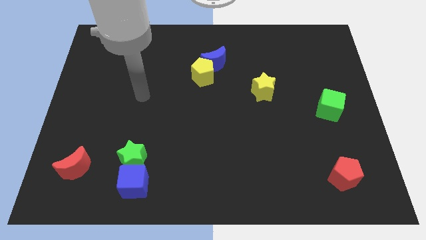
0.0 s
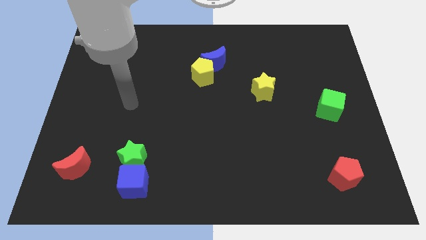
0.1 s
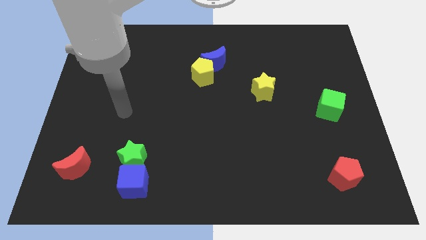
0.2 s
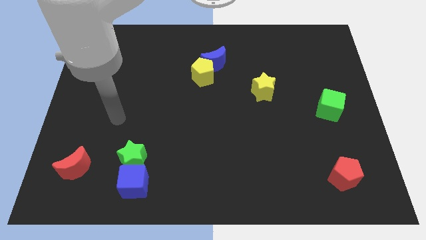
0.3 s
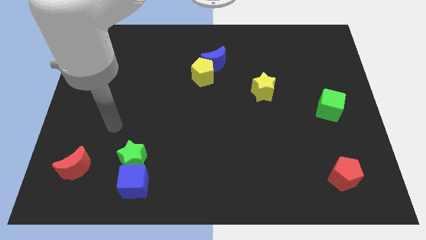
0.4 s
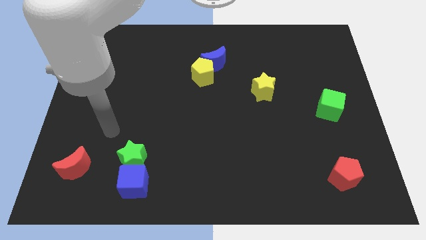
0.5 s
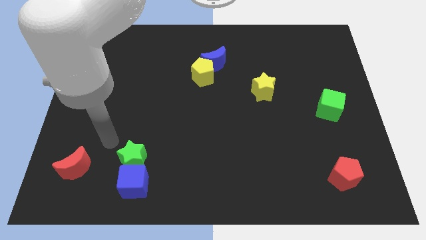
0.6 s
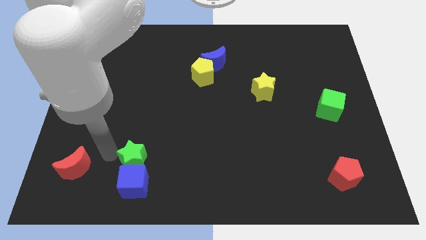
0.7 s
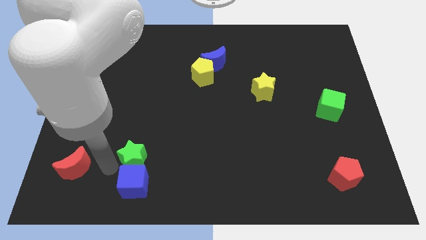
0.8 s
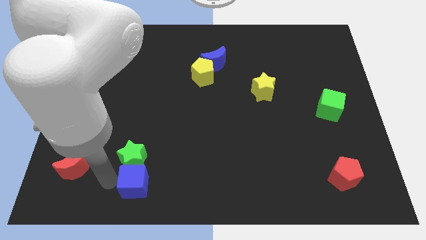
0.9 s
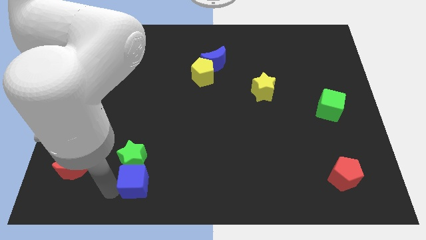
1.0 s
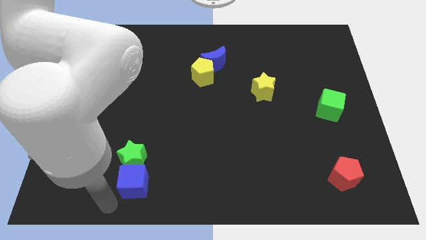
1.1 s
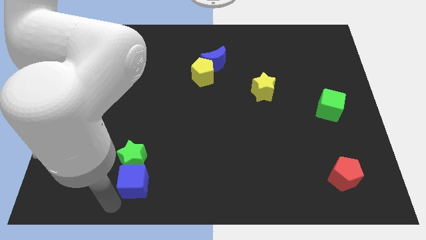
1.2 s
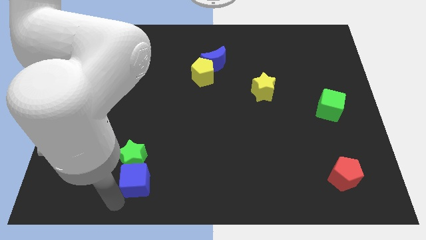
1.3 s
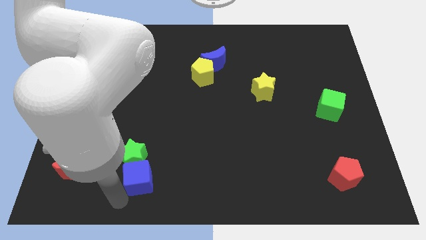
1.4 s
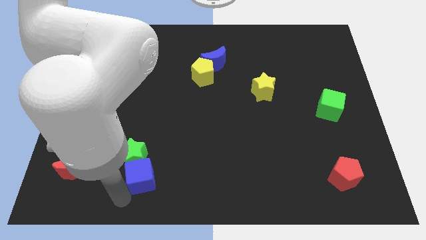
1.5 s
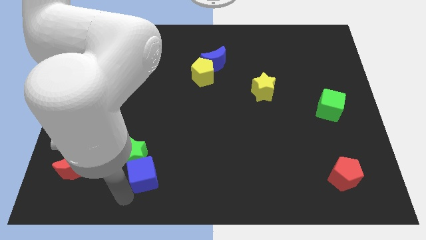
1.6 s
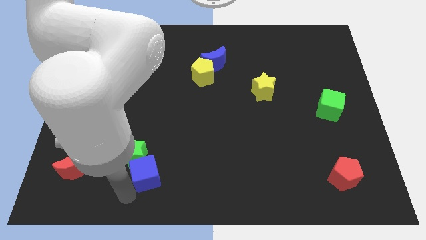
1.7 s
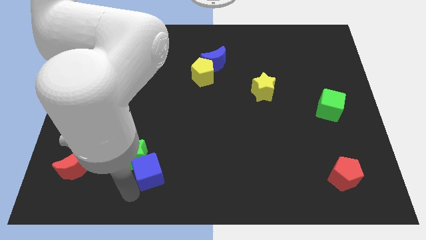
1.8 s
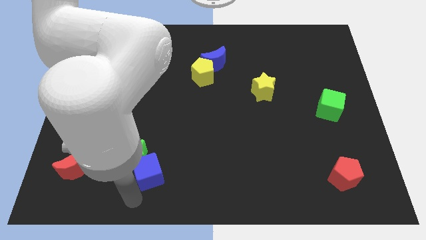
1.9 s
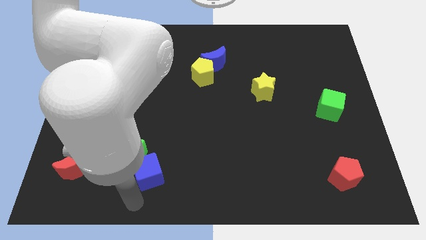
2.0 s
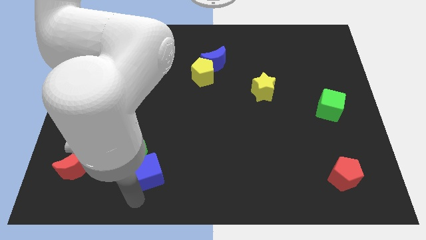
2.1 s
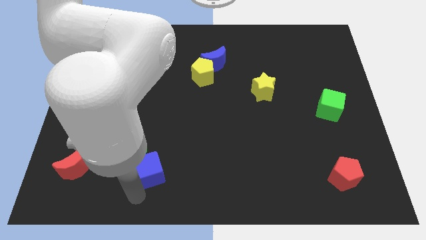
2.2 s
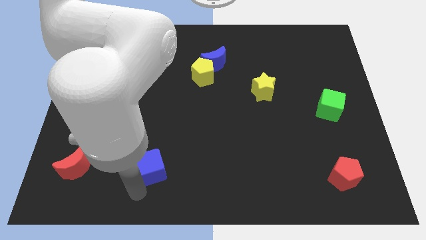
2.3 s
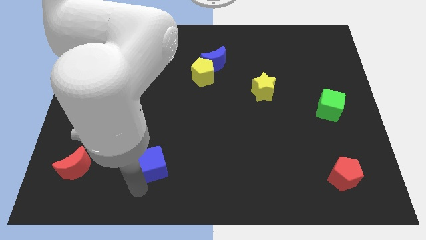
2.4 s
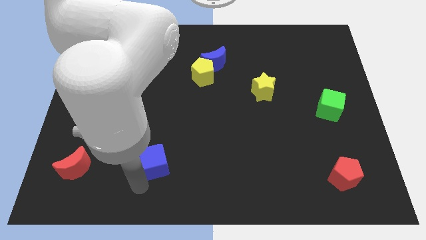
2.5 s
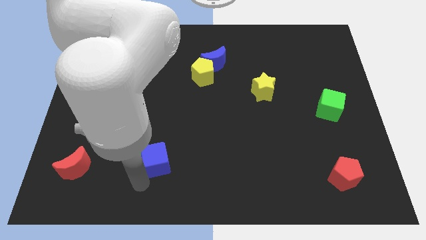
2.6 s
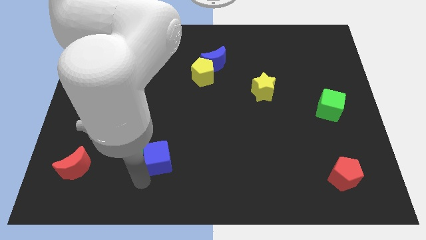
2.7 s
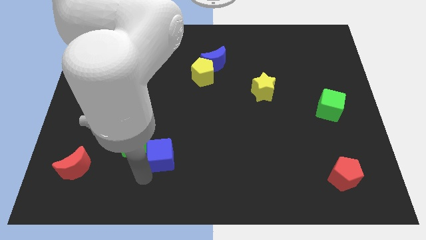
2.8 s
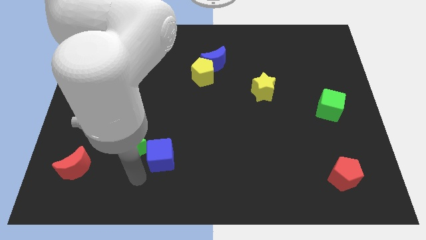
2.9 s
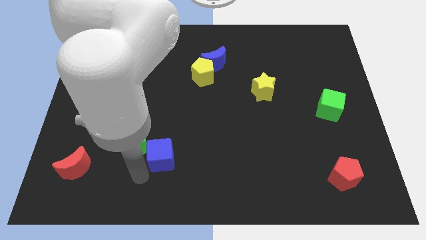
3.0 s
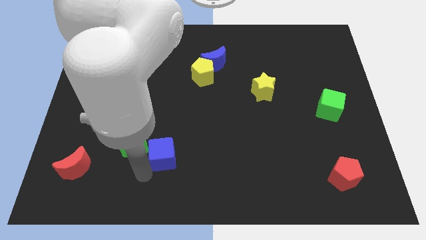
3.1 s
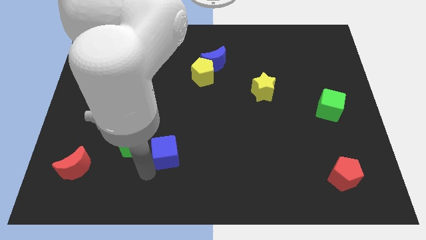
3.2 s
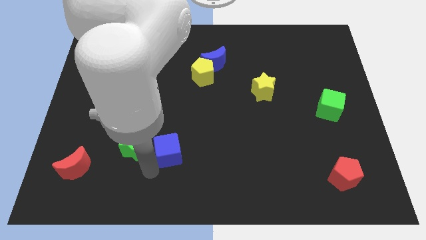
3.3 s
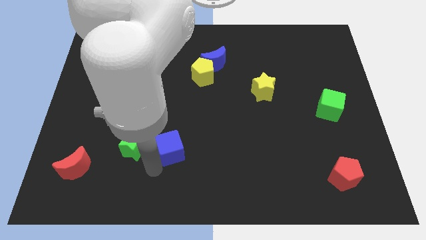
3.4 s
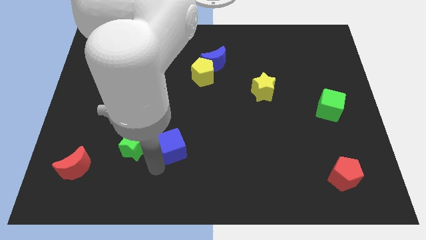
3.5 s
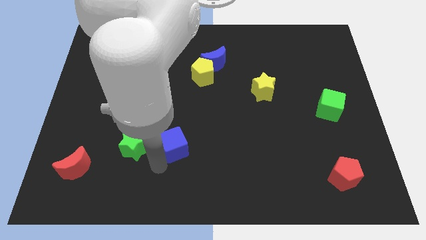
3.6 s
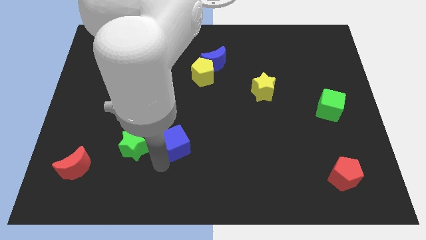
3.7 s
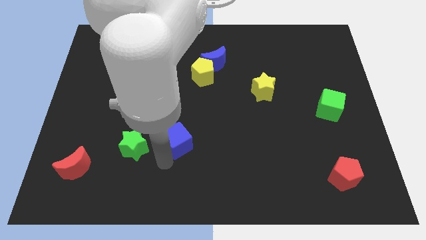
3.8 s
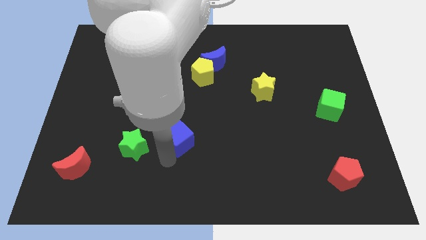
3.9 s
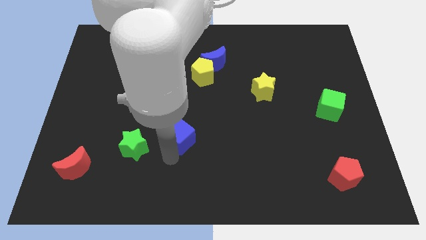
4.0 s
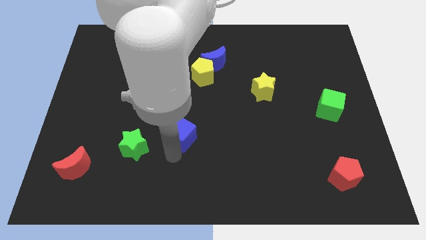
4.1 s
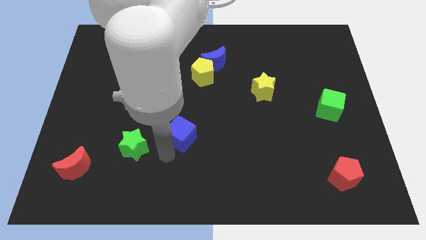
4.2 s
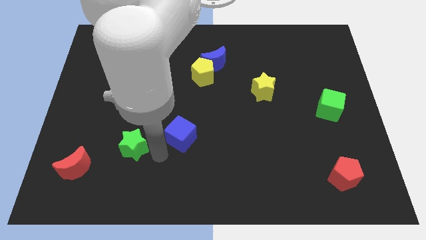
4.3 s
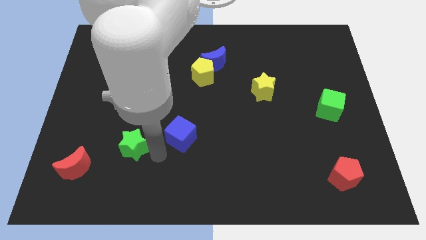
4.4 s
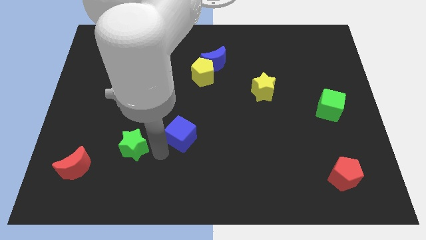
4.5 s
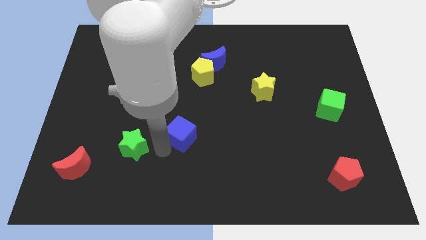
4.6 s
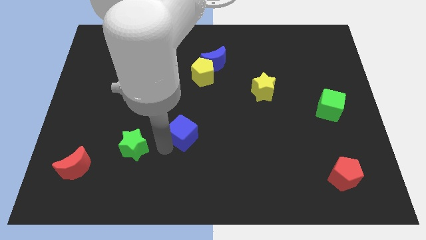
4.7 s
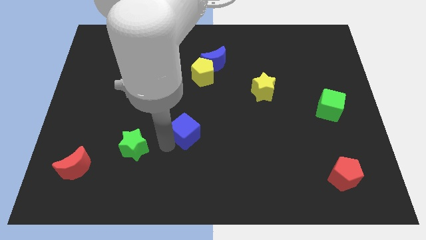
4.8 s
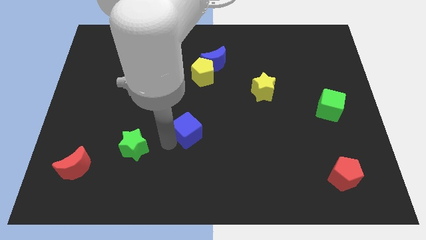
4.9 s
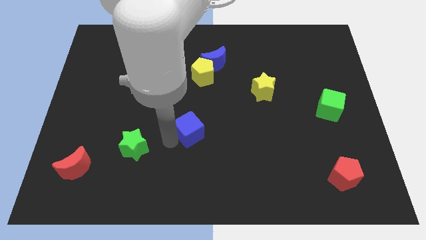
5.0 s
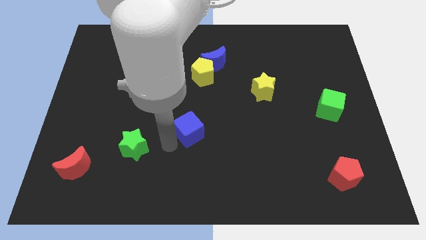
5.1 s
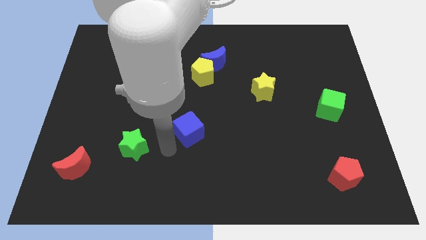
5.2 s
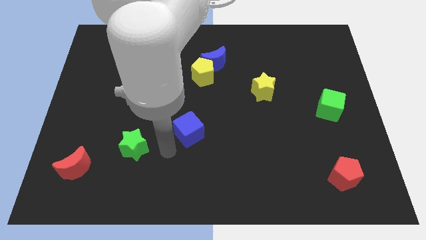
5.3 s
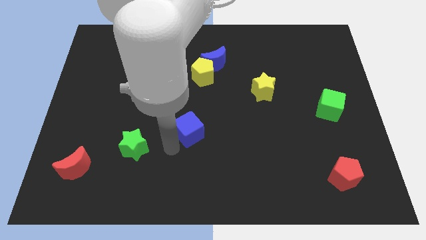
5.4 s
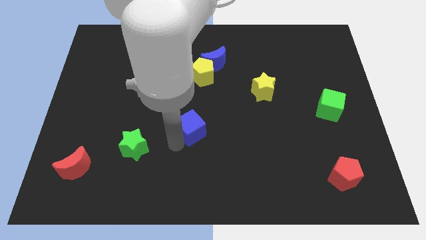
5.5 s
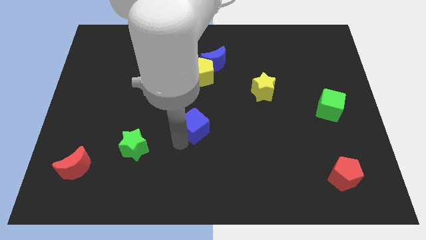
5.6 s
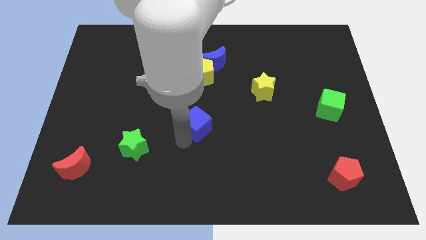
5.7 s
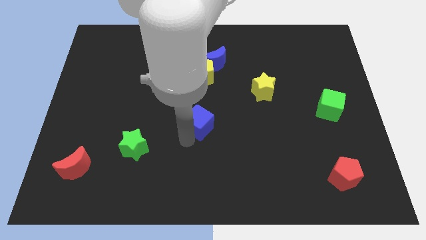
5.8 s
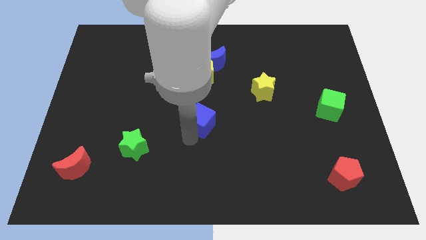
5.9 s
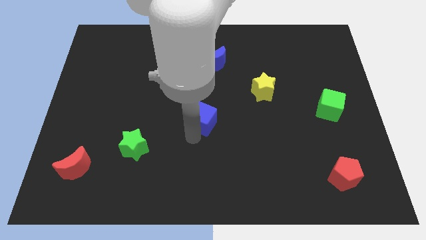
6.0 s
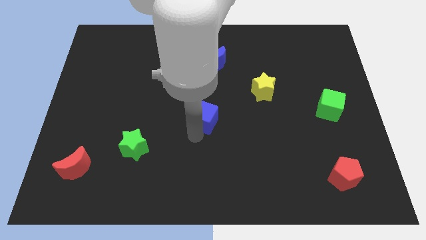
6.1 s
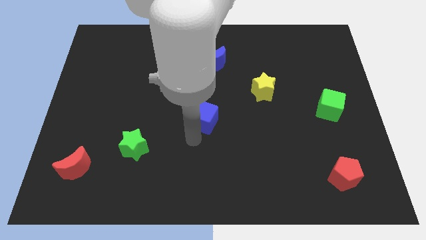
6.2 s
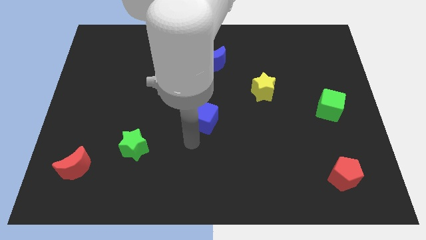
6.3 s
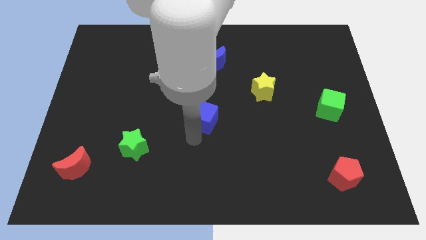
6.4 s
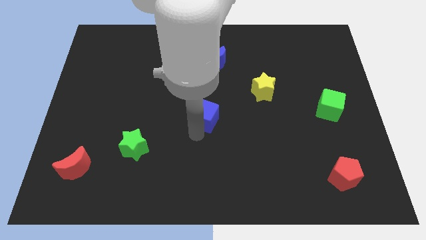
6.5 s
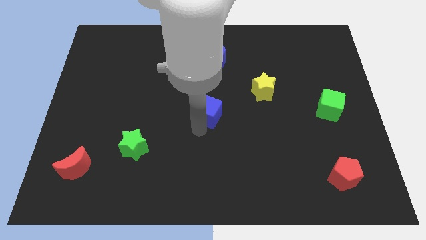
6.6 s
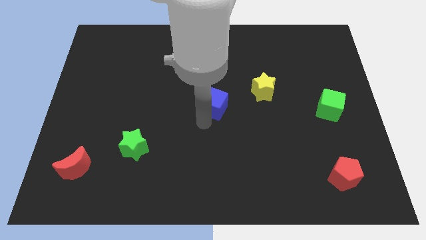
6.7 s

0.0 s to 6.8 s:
move the blue cube left of the yellow star

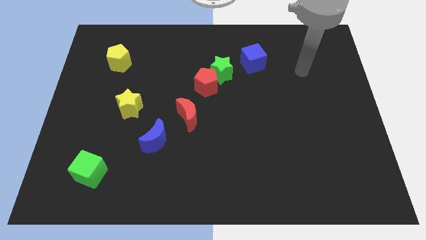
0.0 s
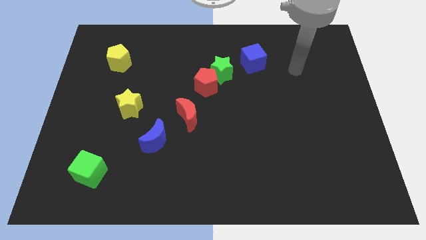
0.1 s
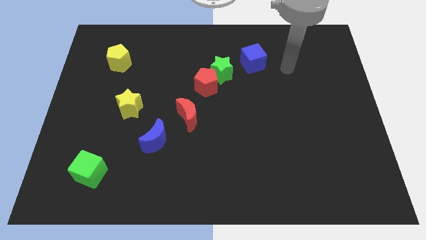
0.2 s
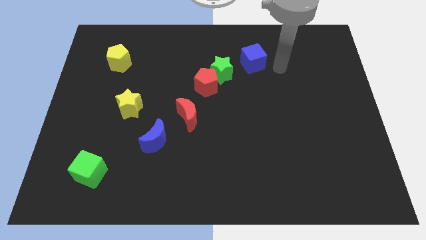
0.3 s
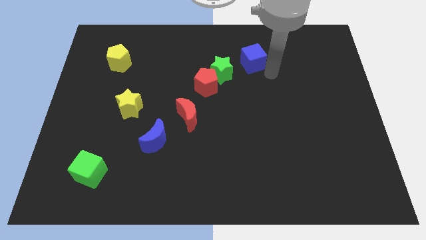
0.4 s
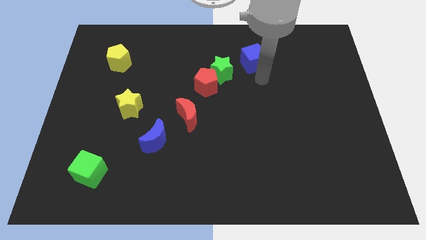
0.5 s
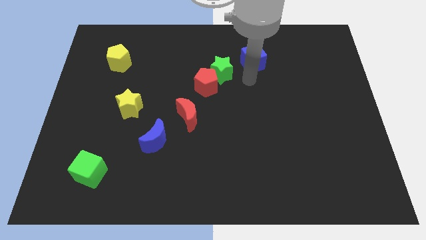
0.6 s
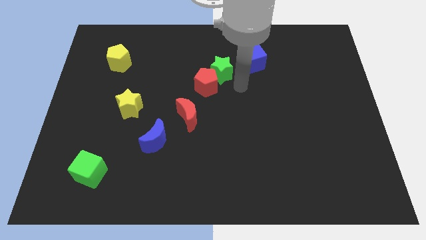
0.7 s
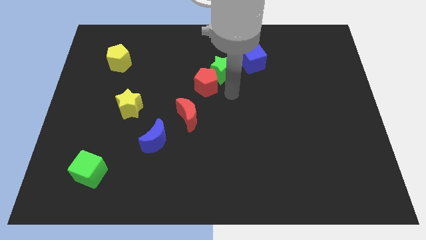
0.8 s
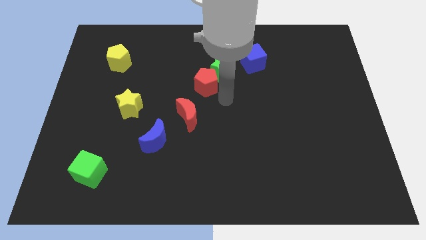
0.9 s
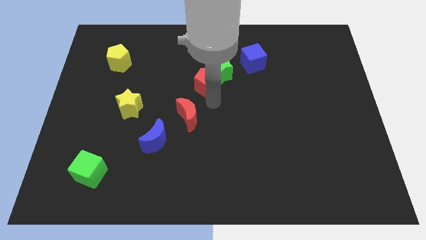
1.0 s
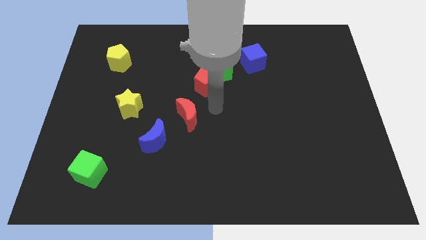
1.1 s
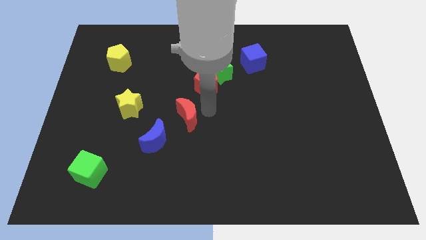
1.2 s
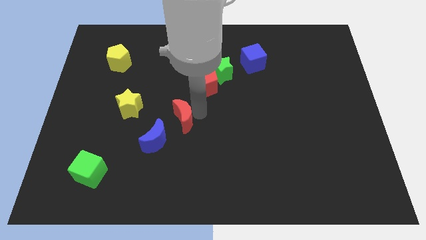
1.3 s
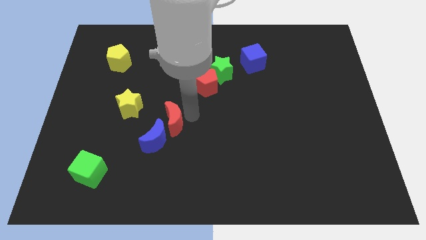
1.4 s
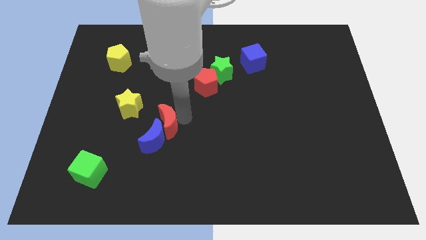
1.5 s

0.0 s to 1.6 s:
move the red moon to the bottom right of the yellow star
